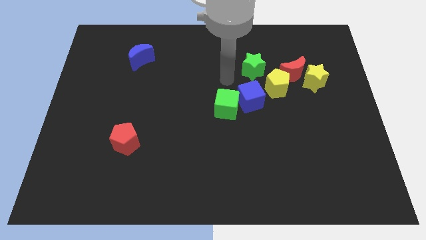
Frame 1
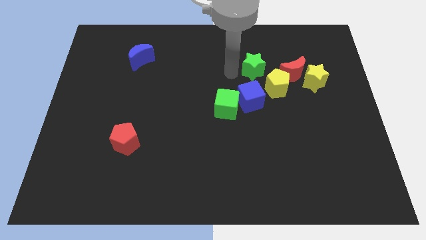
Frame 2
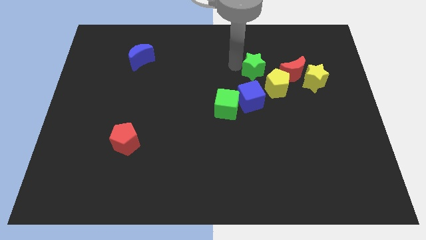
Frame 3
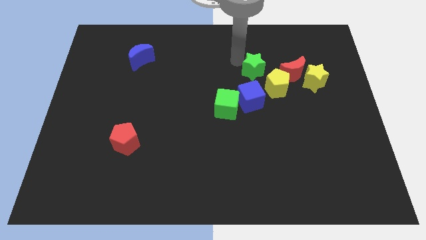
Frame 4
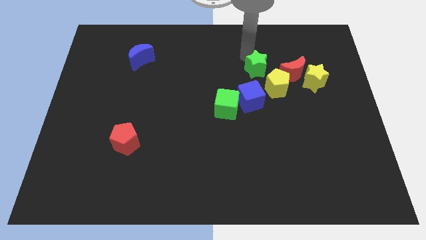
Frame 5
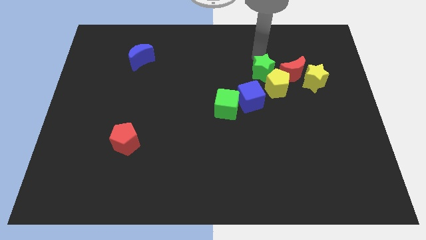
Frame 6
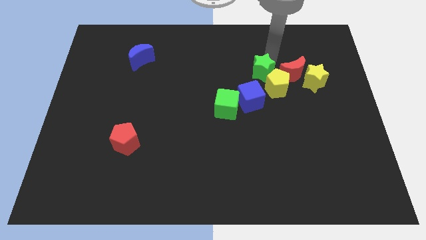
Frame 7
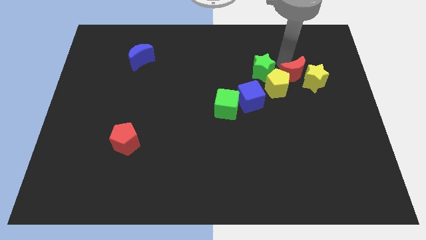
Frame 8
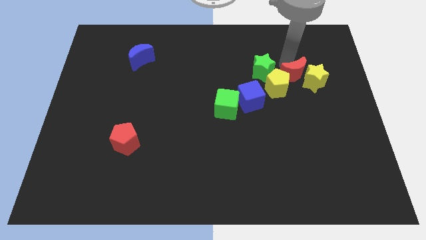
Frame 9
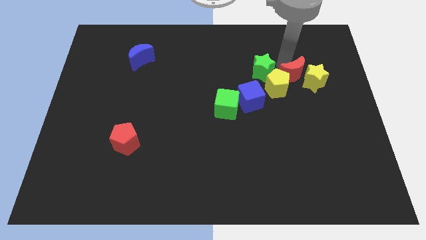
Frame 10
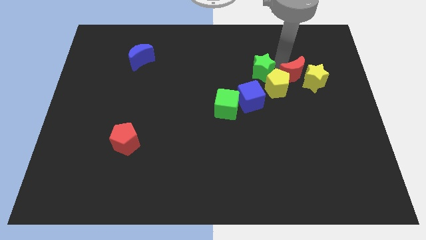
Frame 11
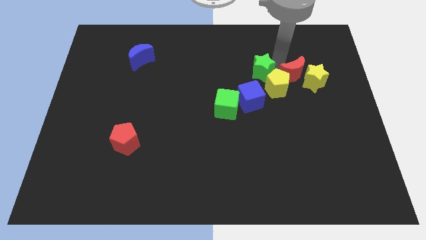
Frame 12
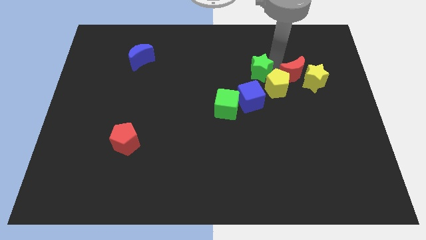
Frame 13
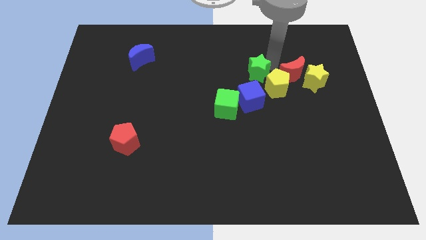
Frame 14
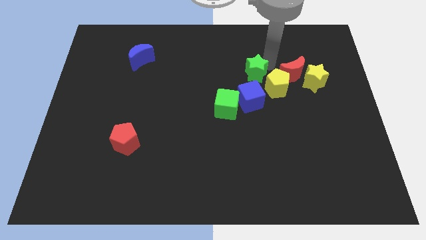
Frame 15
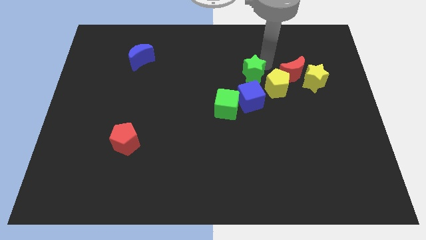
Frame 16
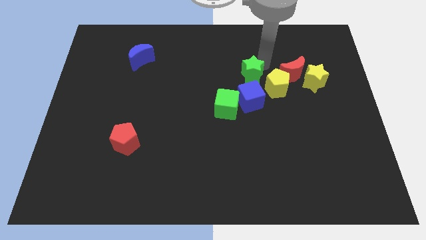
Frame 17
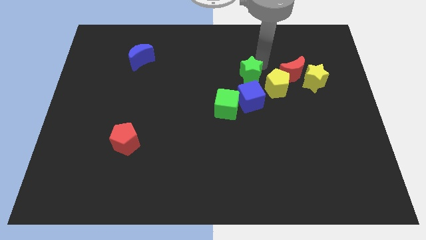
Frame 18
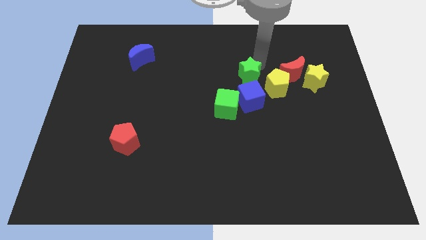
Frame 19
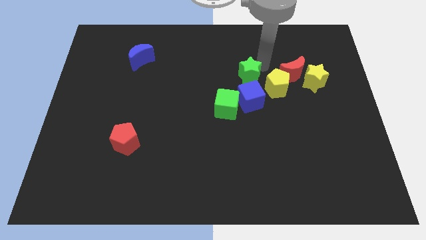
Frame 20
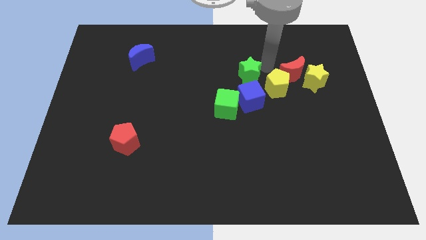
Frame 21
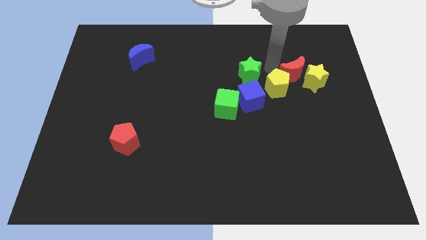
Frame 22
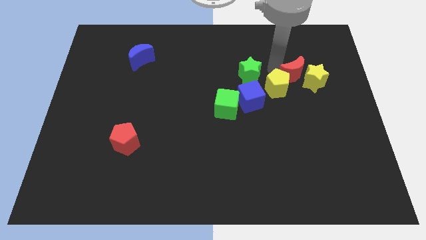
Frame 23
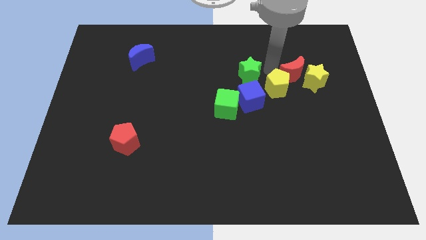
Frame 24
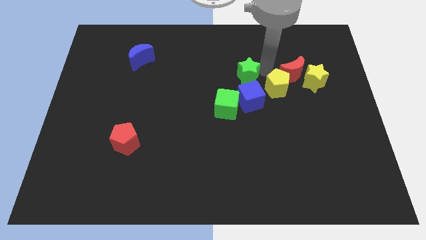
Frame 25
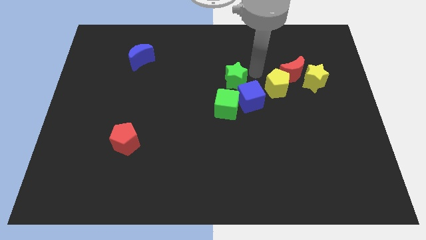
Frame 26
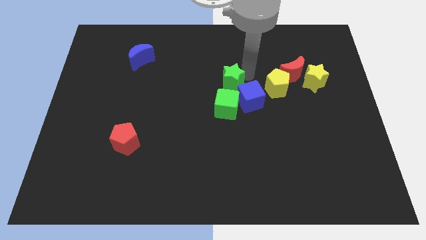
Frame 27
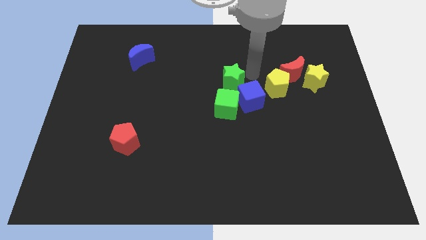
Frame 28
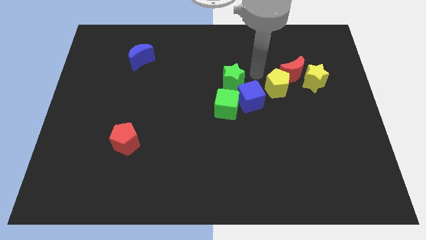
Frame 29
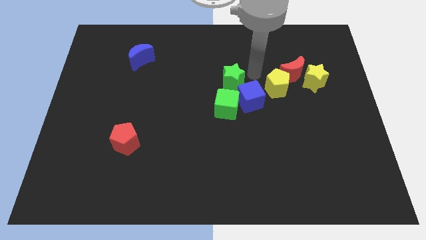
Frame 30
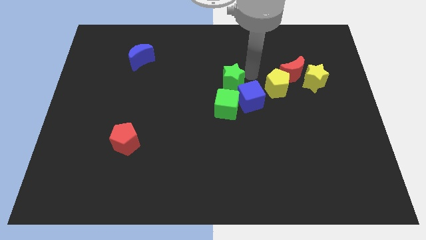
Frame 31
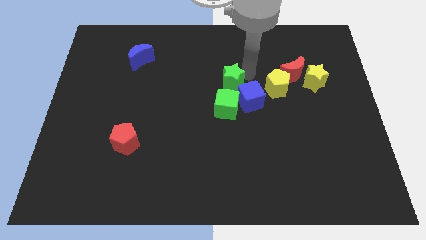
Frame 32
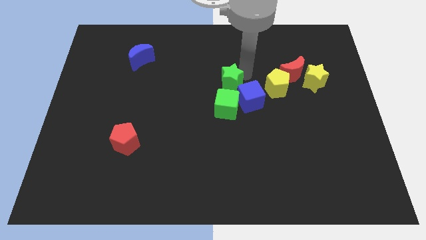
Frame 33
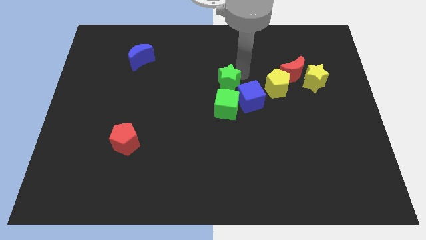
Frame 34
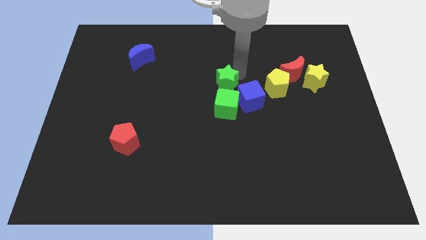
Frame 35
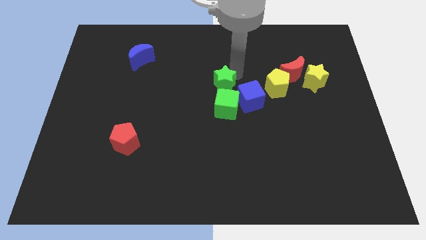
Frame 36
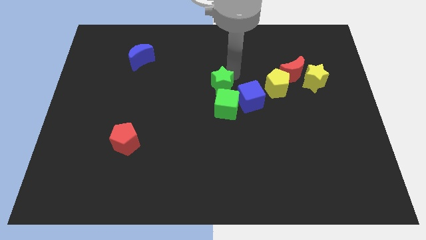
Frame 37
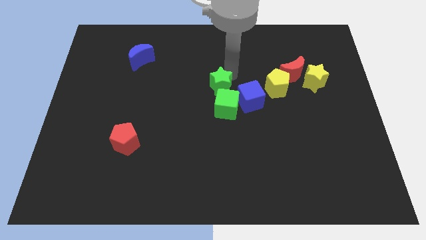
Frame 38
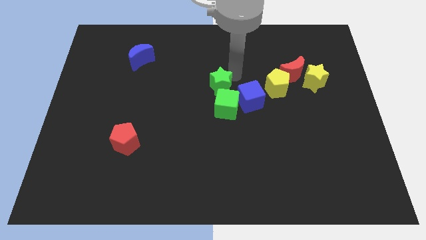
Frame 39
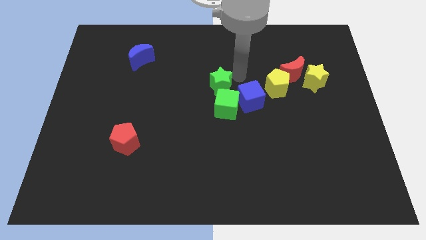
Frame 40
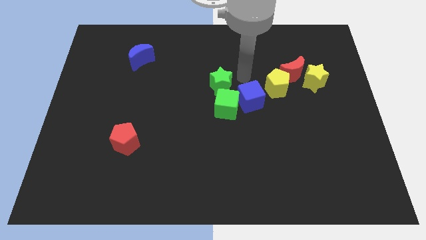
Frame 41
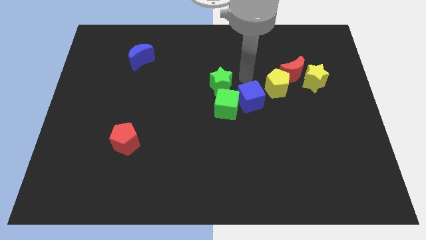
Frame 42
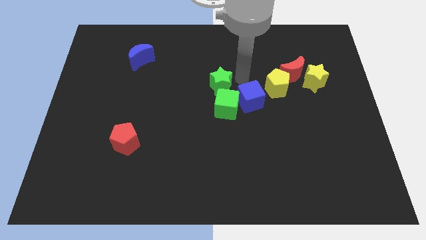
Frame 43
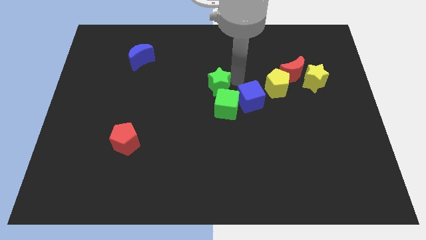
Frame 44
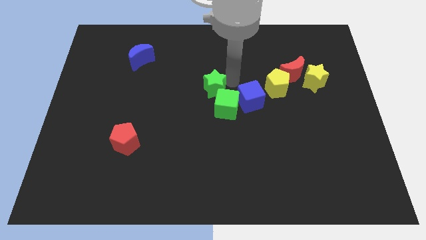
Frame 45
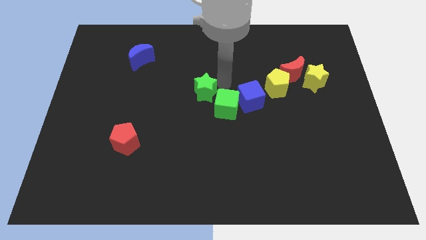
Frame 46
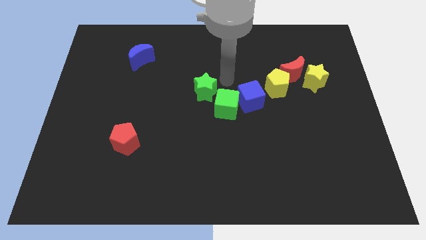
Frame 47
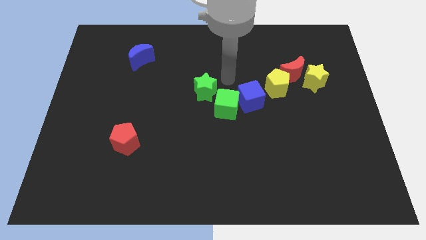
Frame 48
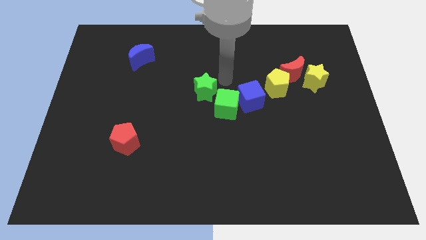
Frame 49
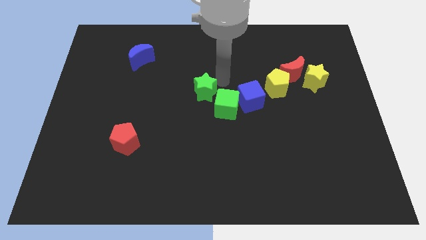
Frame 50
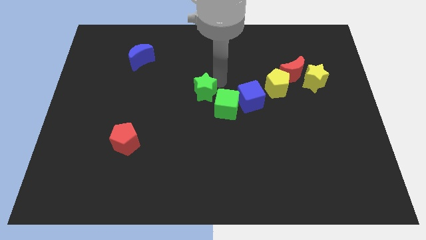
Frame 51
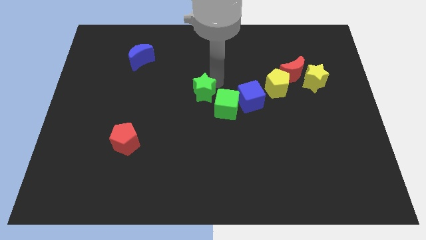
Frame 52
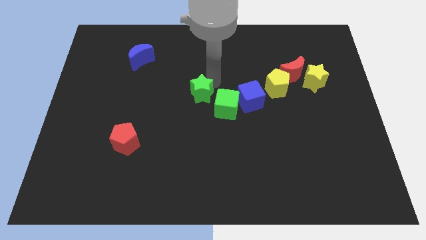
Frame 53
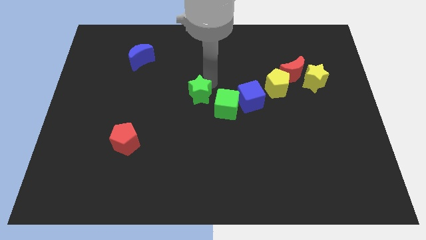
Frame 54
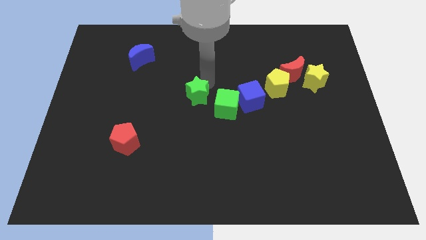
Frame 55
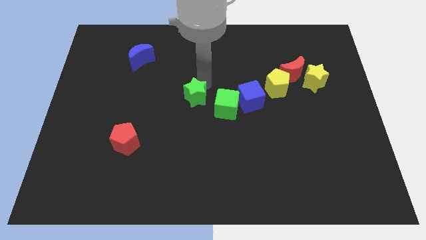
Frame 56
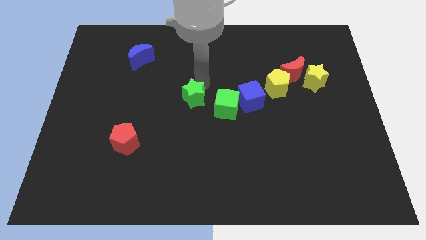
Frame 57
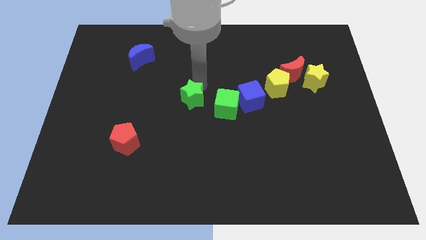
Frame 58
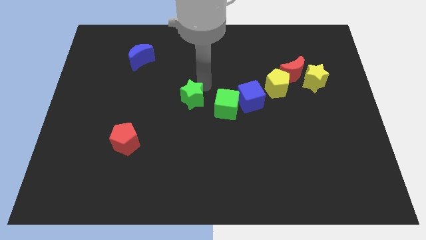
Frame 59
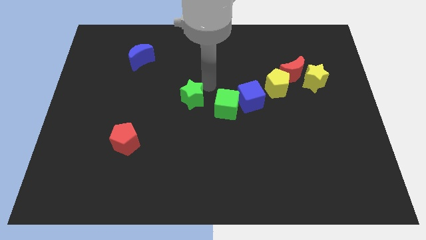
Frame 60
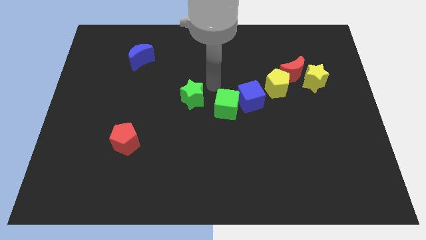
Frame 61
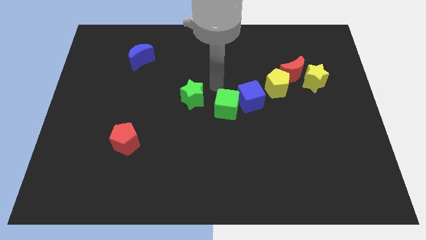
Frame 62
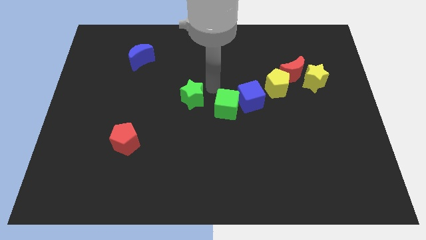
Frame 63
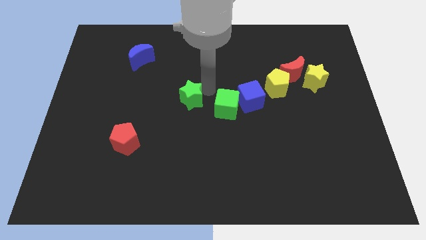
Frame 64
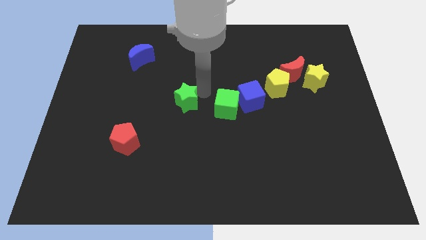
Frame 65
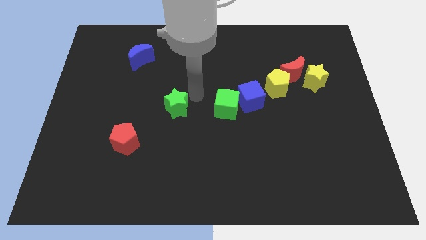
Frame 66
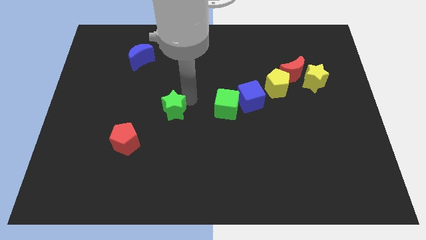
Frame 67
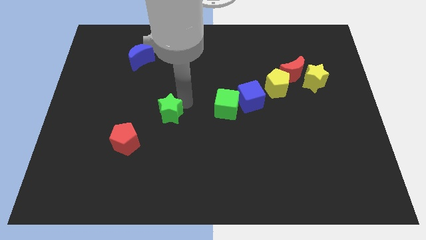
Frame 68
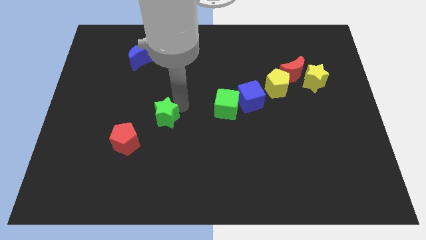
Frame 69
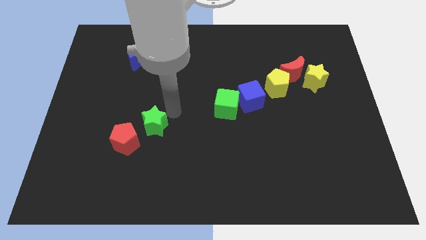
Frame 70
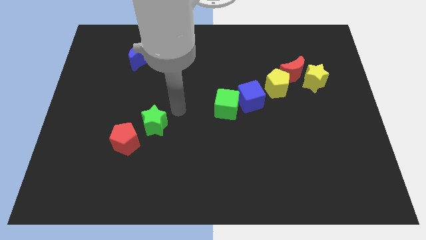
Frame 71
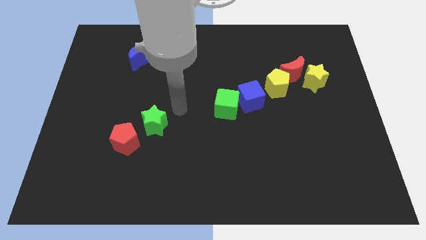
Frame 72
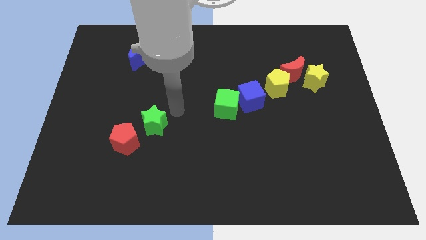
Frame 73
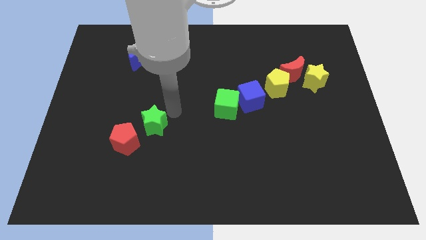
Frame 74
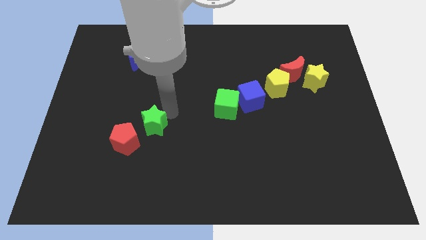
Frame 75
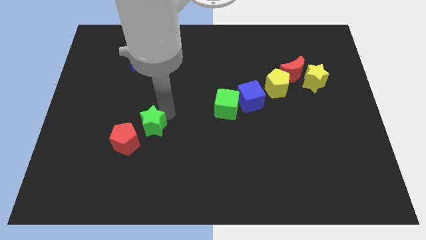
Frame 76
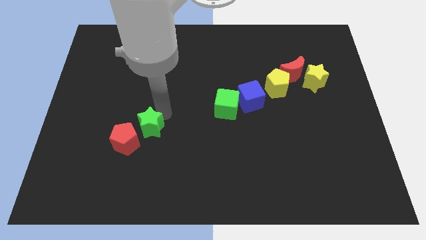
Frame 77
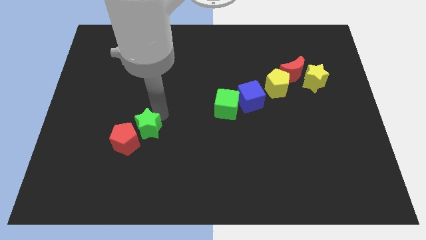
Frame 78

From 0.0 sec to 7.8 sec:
slide the green star to the red pentagon

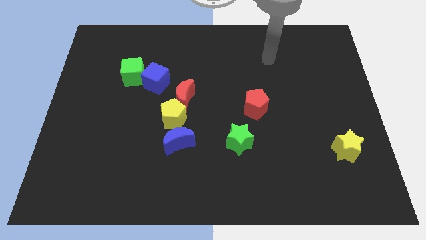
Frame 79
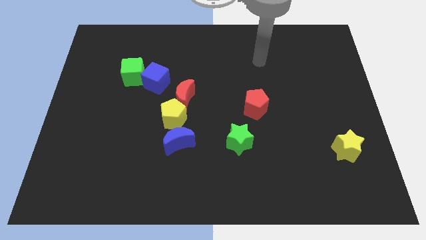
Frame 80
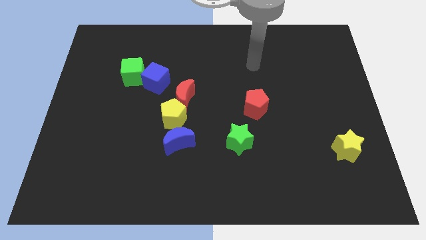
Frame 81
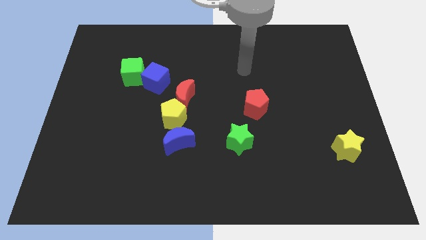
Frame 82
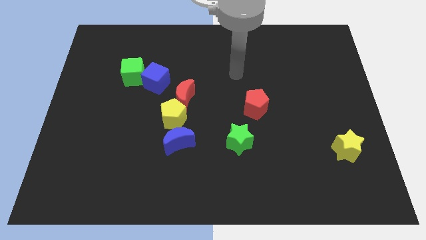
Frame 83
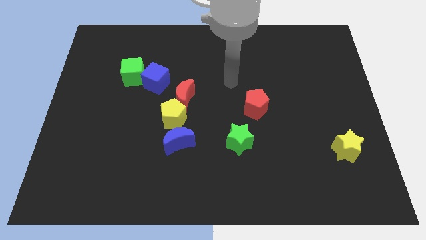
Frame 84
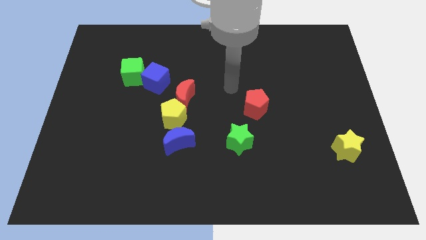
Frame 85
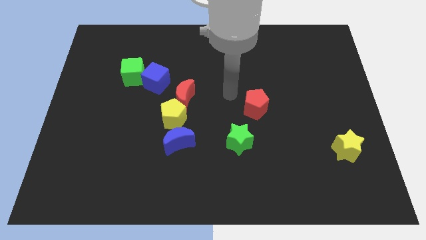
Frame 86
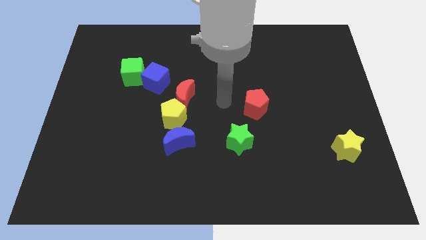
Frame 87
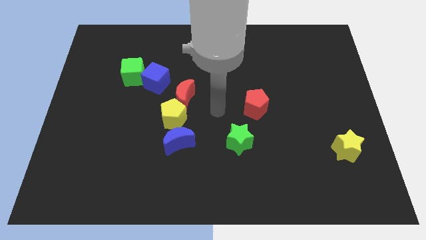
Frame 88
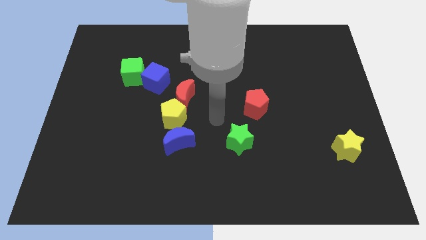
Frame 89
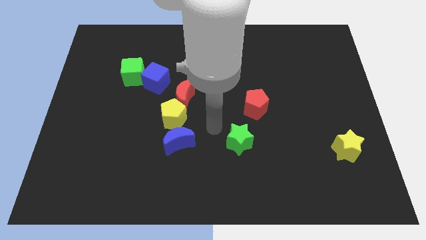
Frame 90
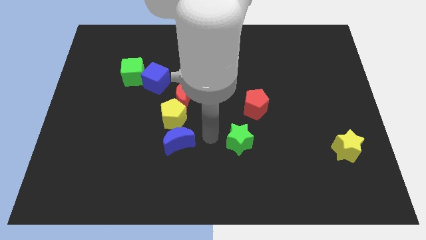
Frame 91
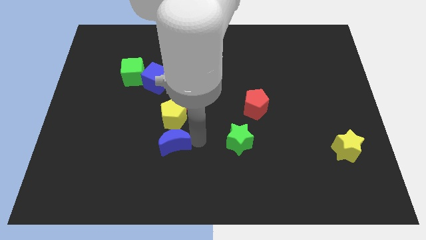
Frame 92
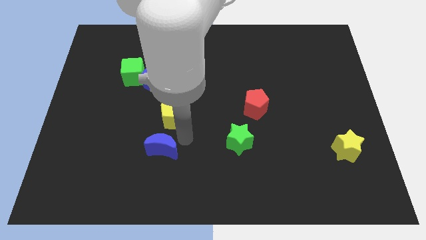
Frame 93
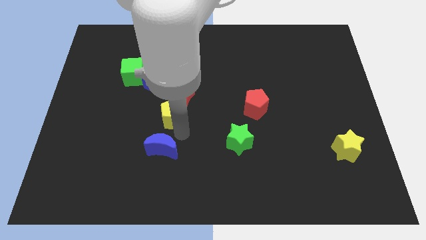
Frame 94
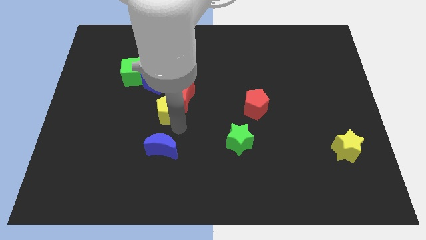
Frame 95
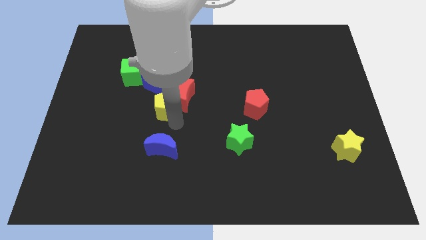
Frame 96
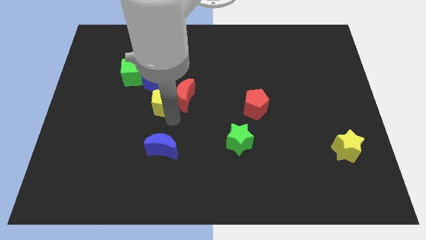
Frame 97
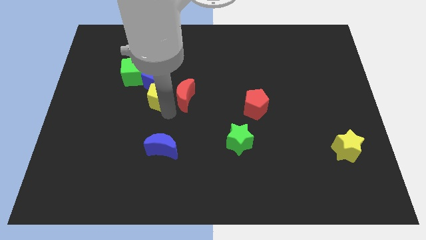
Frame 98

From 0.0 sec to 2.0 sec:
push the yellow pentagon next to the blue cube
